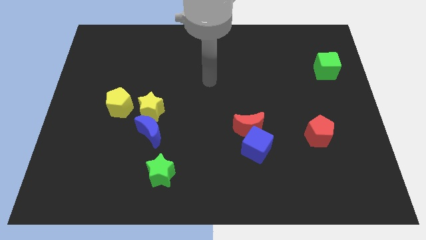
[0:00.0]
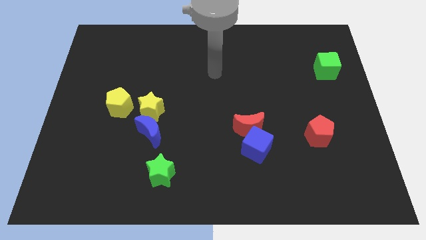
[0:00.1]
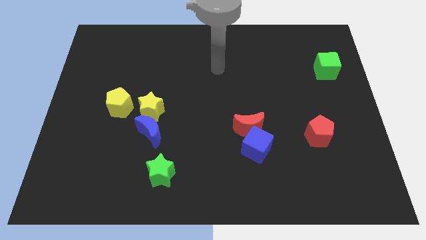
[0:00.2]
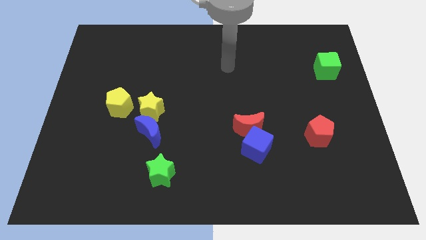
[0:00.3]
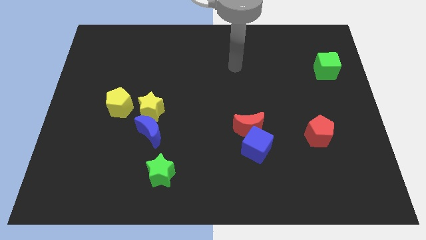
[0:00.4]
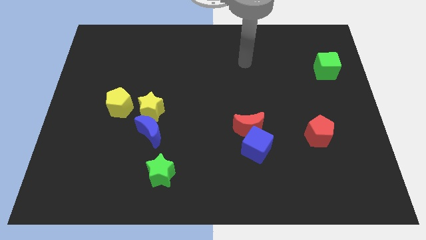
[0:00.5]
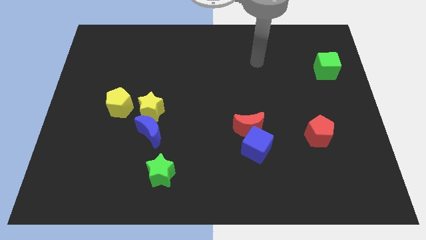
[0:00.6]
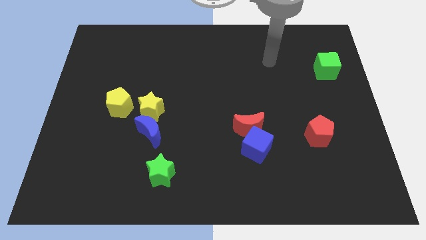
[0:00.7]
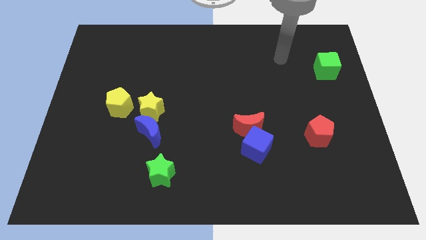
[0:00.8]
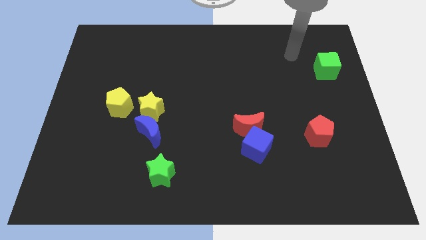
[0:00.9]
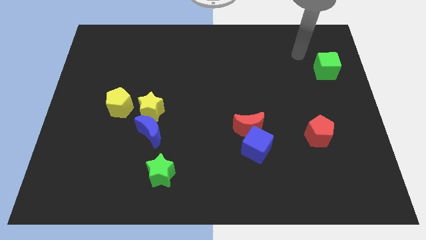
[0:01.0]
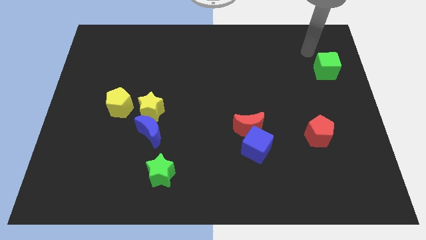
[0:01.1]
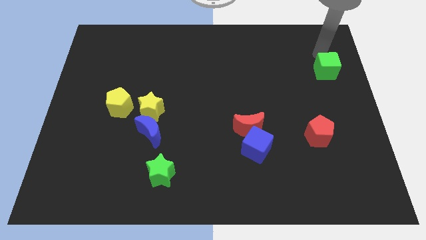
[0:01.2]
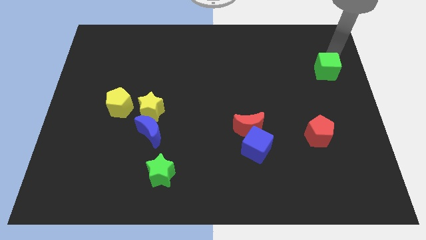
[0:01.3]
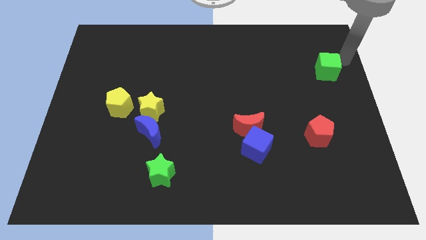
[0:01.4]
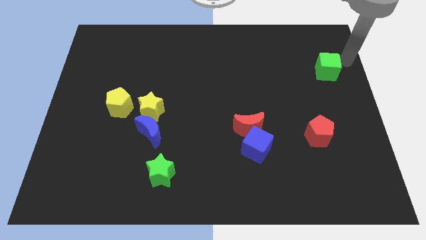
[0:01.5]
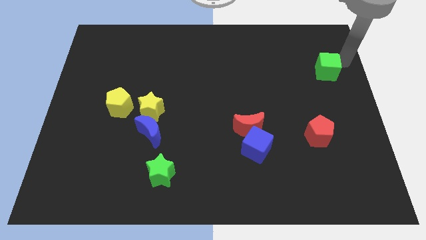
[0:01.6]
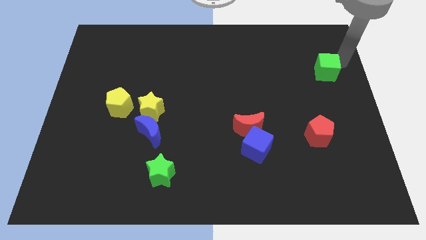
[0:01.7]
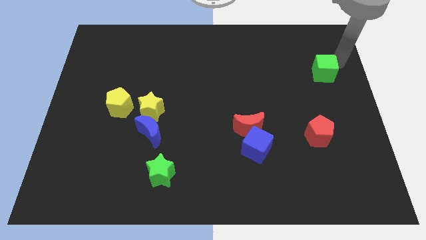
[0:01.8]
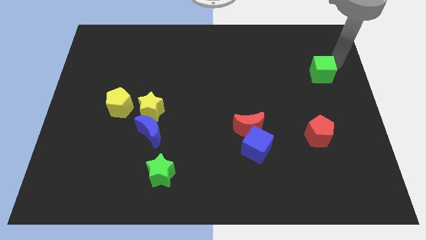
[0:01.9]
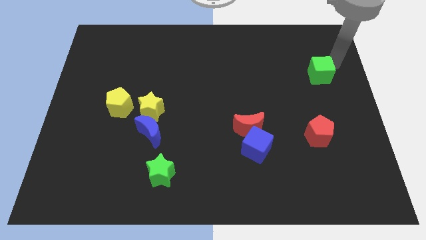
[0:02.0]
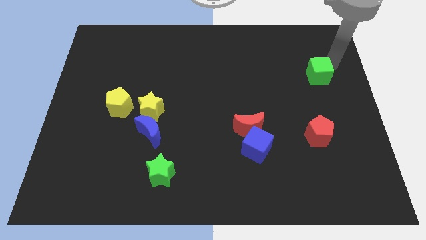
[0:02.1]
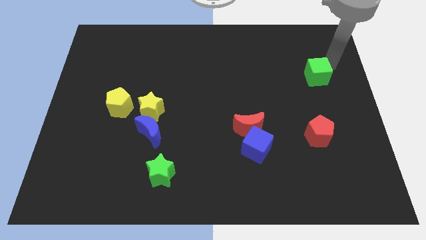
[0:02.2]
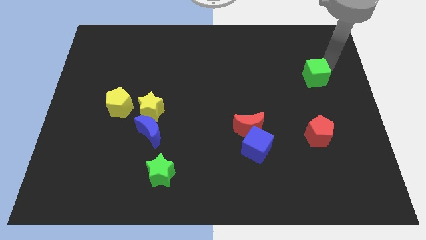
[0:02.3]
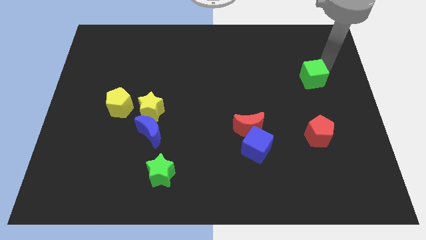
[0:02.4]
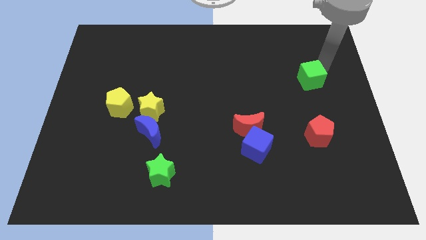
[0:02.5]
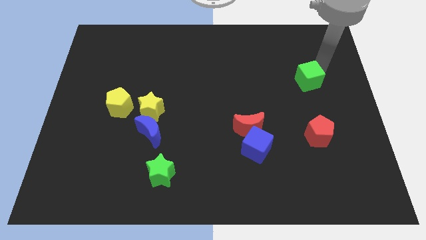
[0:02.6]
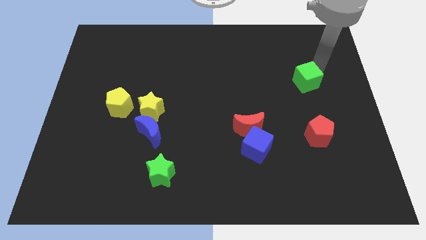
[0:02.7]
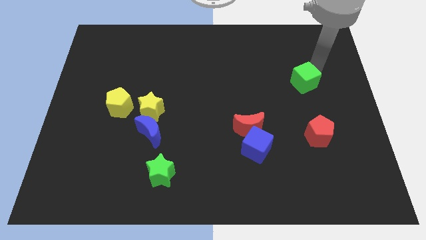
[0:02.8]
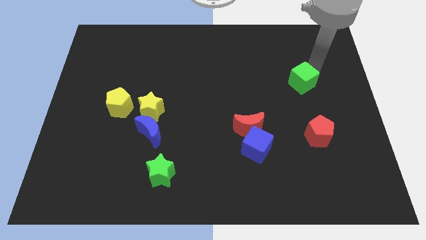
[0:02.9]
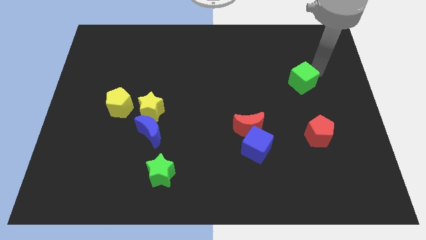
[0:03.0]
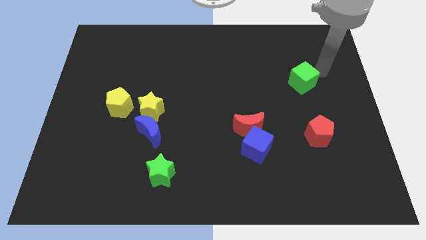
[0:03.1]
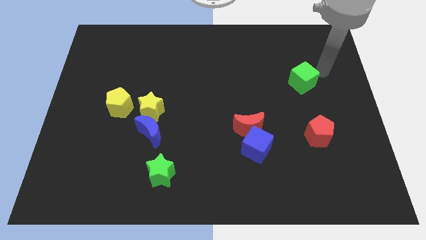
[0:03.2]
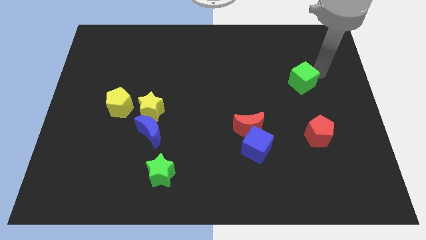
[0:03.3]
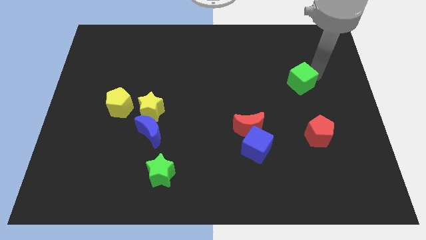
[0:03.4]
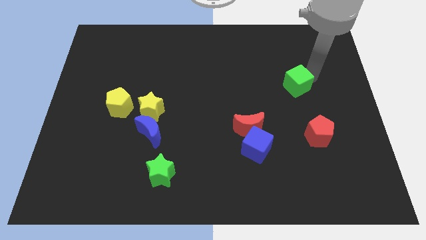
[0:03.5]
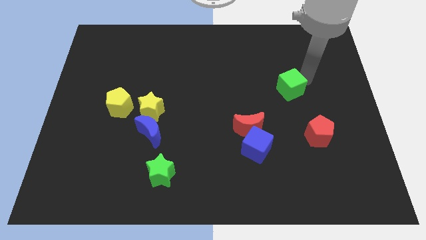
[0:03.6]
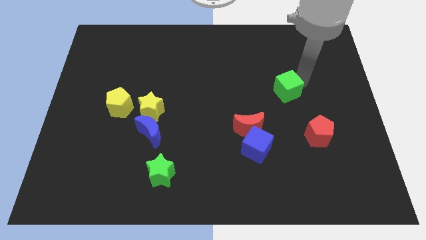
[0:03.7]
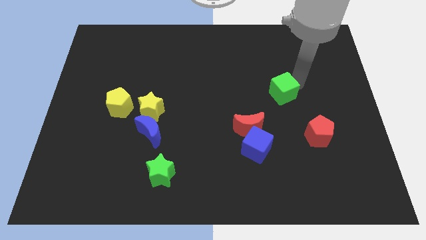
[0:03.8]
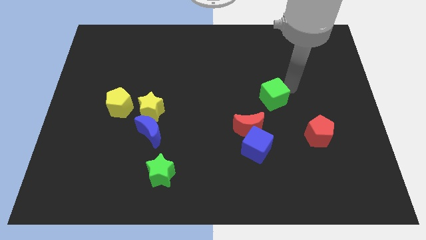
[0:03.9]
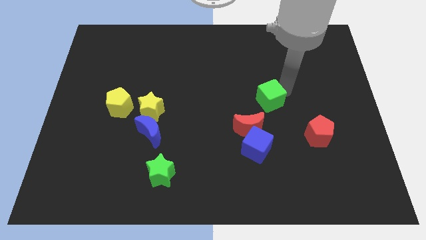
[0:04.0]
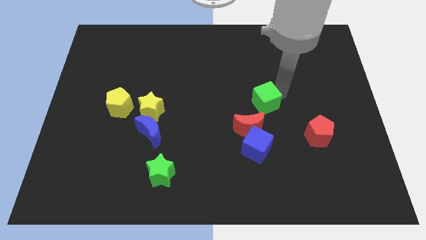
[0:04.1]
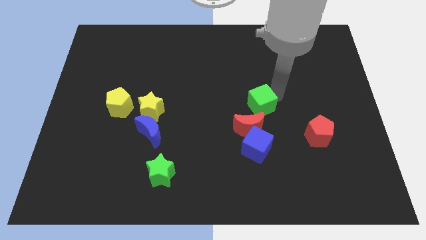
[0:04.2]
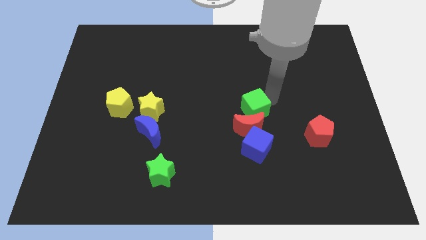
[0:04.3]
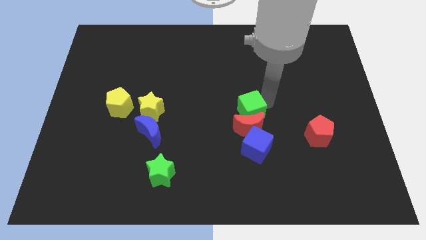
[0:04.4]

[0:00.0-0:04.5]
slide the green cube to the top left side of the red moon

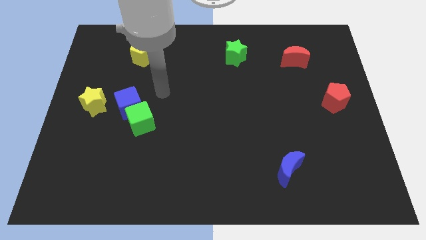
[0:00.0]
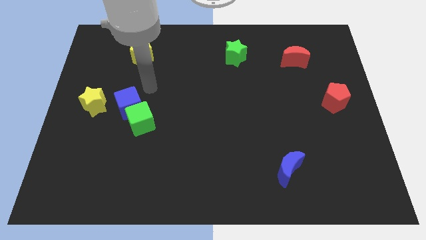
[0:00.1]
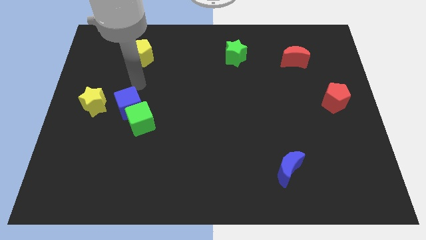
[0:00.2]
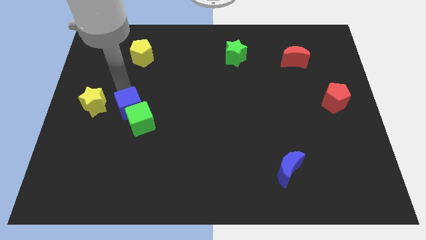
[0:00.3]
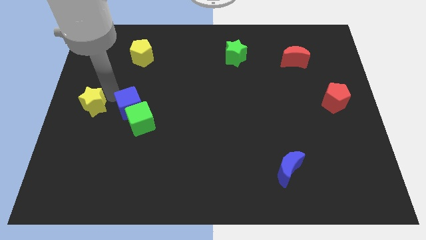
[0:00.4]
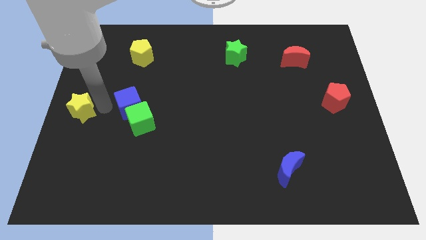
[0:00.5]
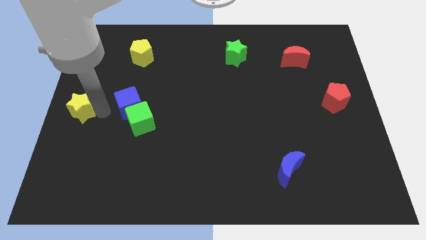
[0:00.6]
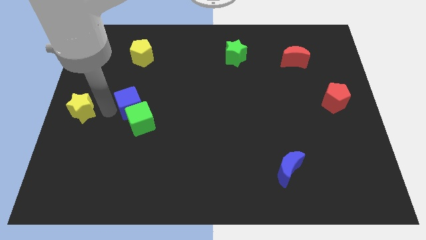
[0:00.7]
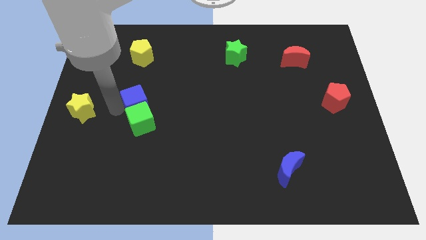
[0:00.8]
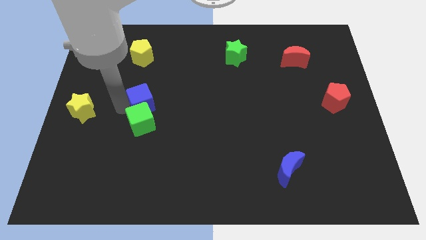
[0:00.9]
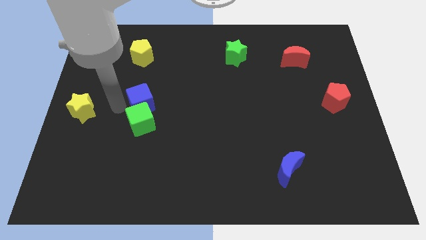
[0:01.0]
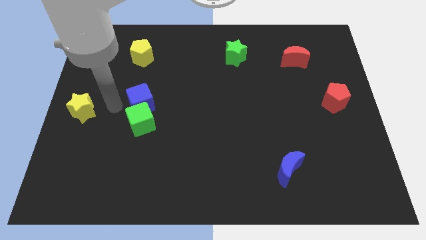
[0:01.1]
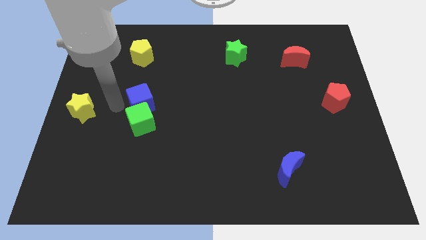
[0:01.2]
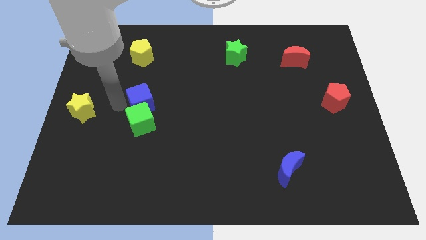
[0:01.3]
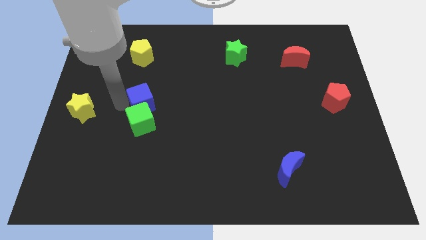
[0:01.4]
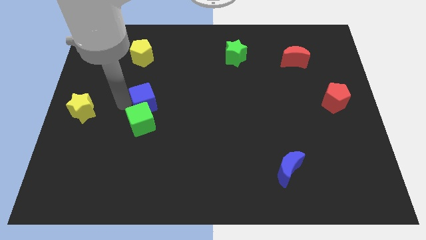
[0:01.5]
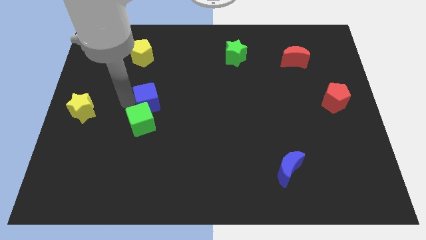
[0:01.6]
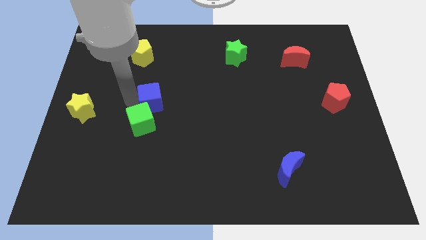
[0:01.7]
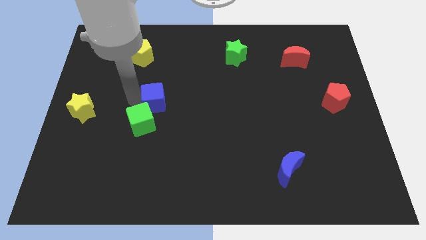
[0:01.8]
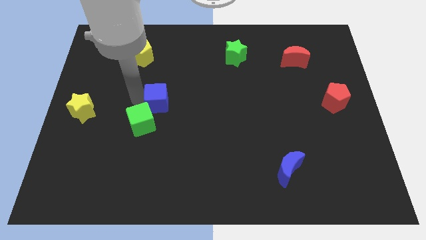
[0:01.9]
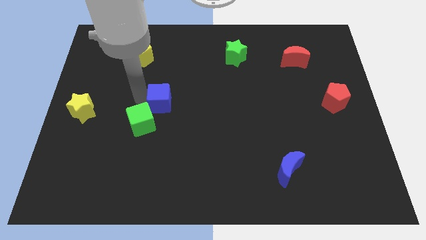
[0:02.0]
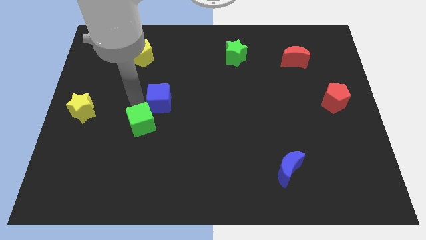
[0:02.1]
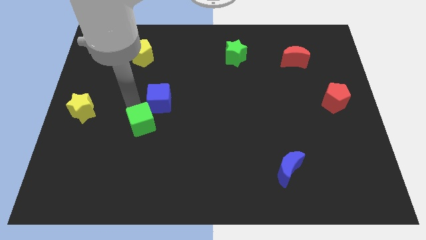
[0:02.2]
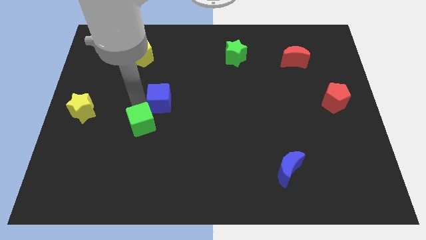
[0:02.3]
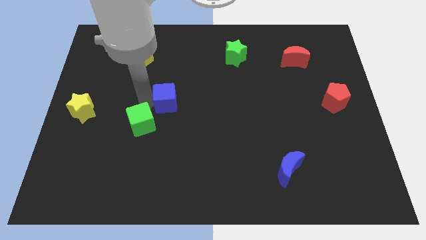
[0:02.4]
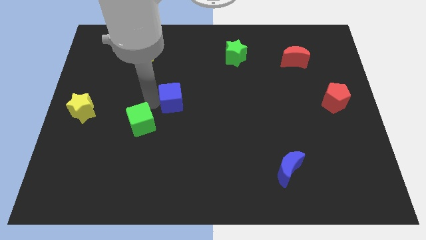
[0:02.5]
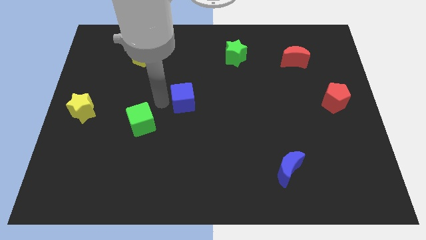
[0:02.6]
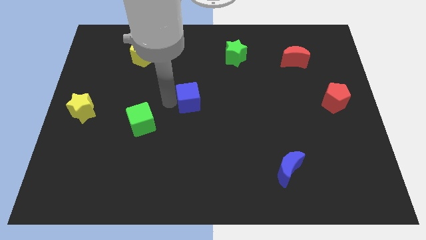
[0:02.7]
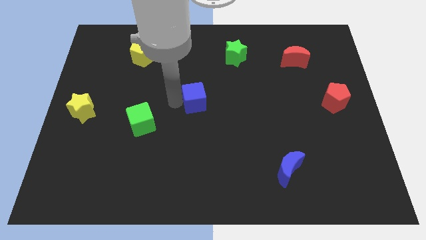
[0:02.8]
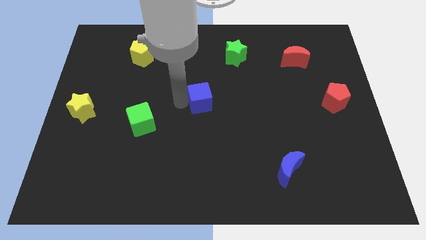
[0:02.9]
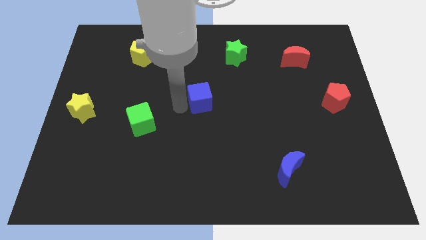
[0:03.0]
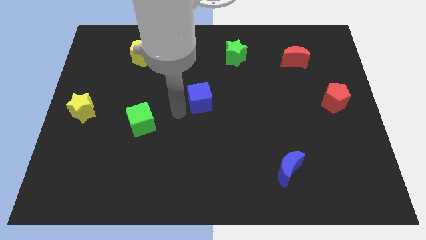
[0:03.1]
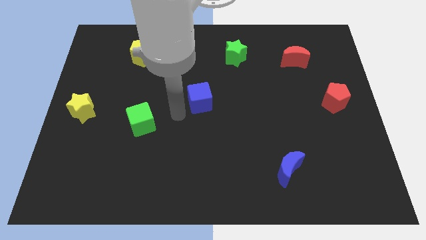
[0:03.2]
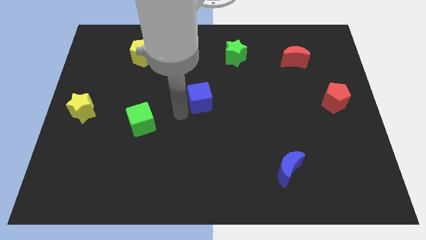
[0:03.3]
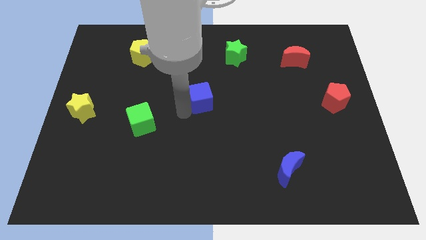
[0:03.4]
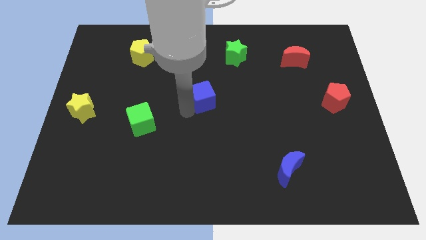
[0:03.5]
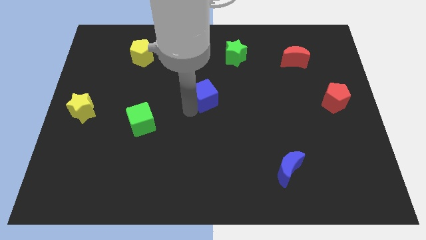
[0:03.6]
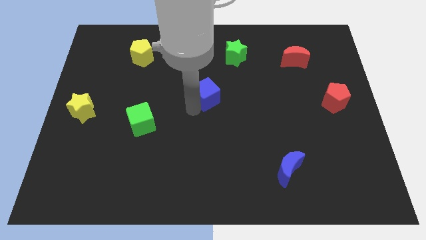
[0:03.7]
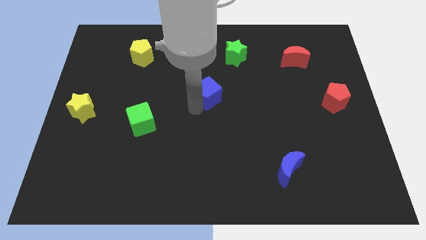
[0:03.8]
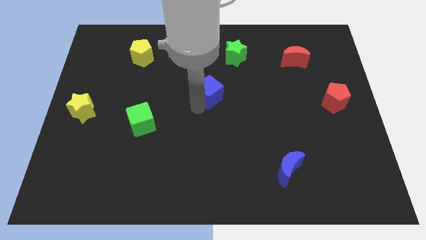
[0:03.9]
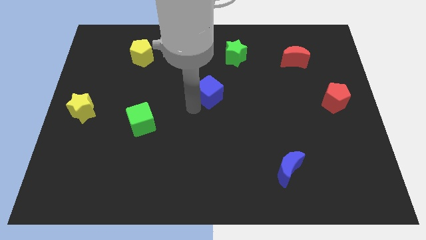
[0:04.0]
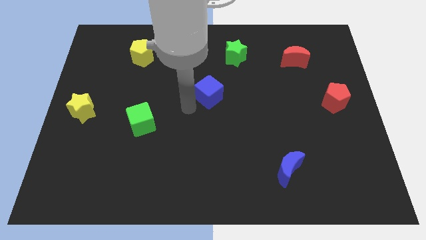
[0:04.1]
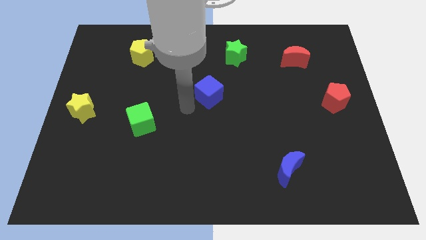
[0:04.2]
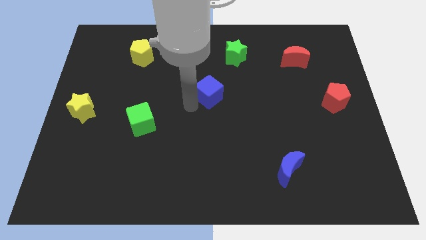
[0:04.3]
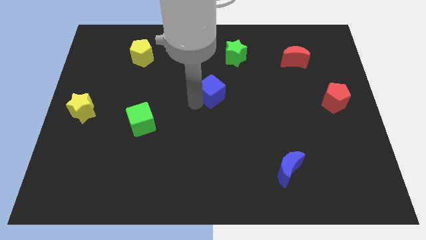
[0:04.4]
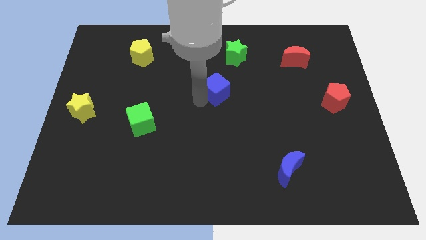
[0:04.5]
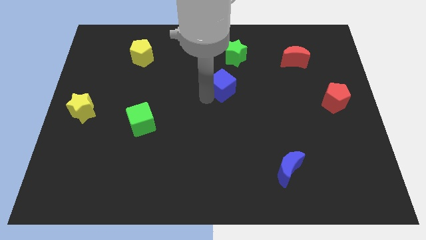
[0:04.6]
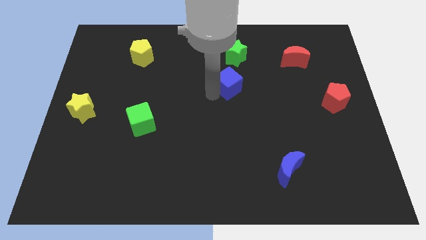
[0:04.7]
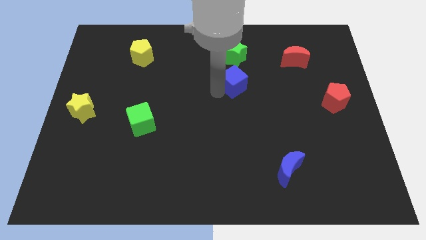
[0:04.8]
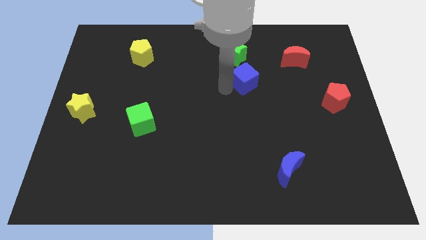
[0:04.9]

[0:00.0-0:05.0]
slide the blue cube diagonally down and to the right of the green star
